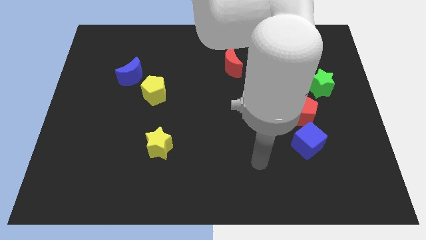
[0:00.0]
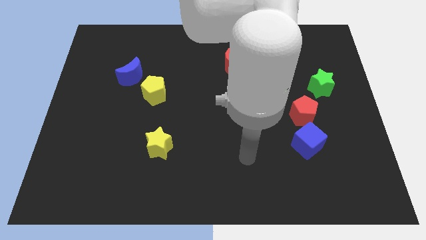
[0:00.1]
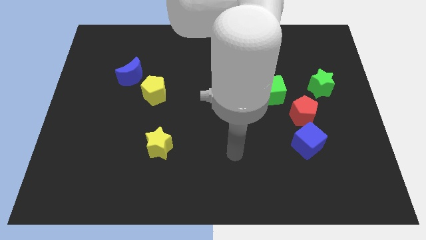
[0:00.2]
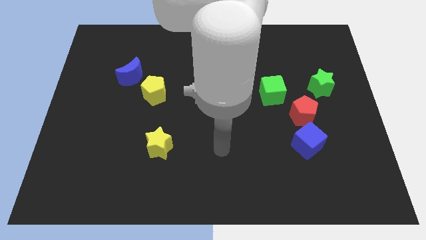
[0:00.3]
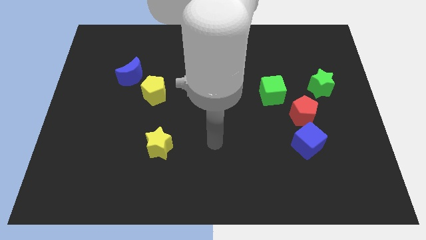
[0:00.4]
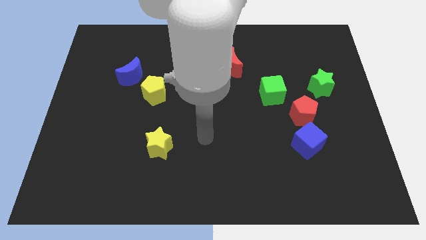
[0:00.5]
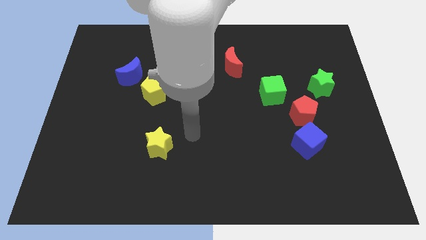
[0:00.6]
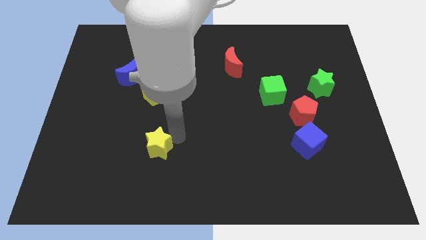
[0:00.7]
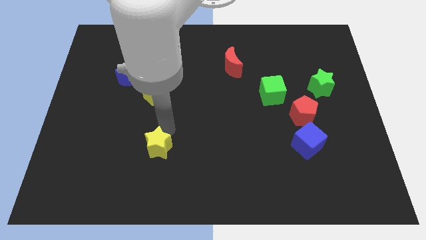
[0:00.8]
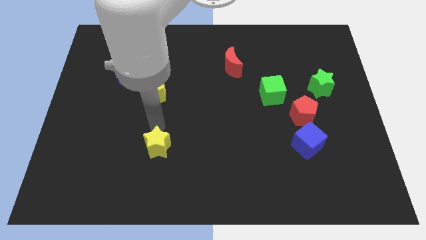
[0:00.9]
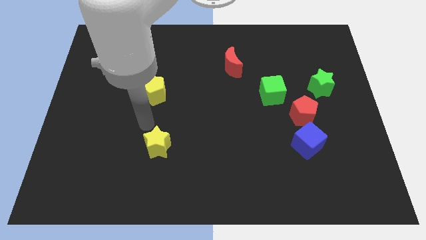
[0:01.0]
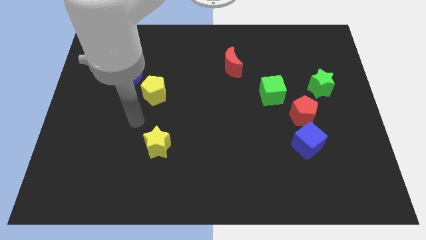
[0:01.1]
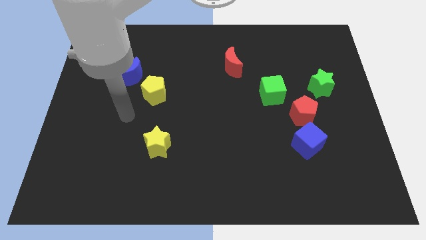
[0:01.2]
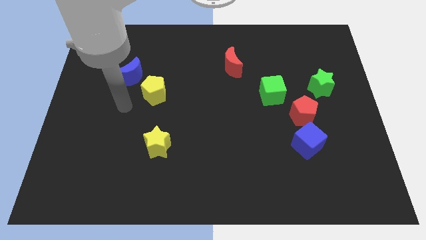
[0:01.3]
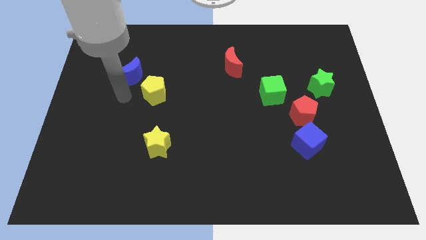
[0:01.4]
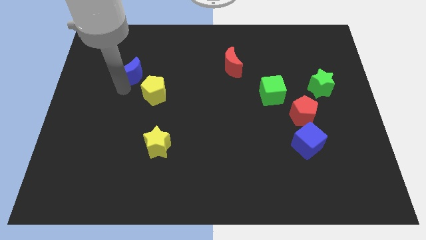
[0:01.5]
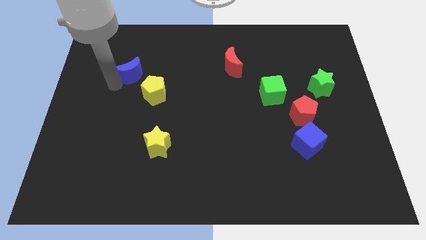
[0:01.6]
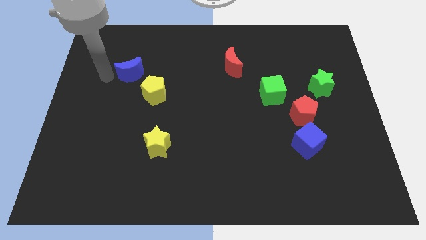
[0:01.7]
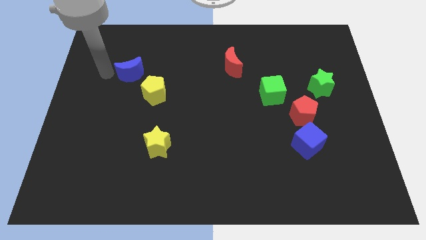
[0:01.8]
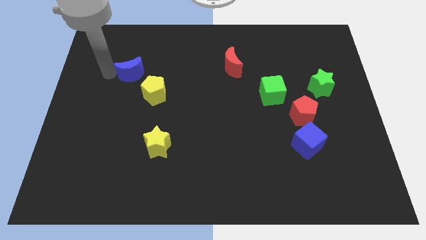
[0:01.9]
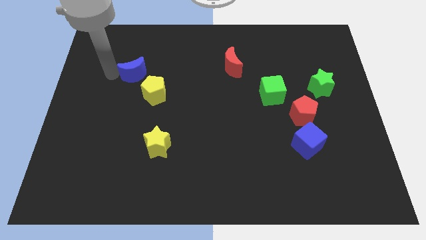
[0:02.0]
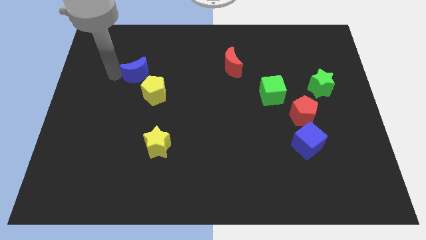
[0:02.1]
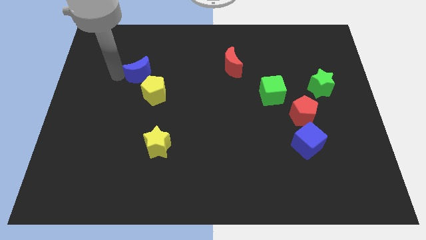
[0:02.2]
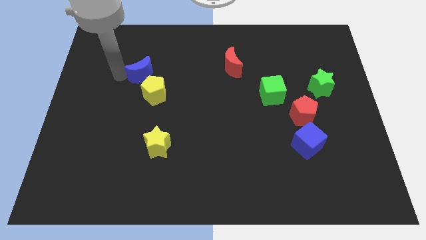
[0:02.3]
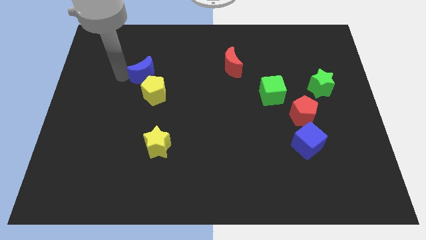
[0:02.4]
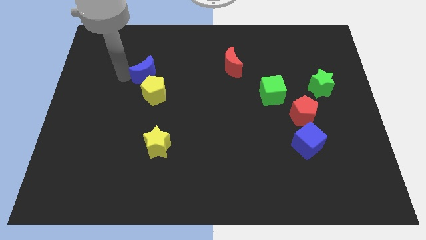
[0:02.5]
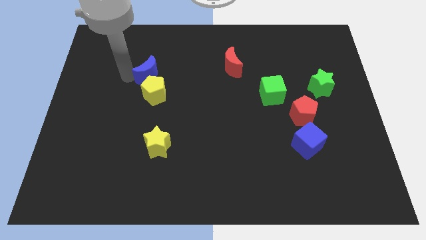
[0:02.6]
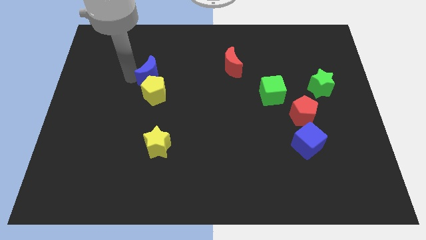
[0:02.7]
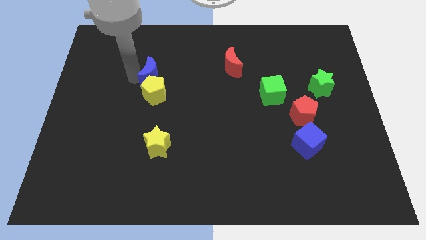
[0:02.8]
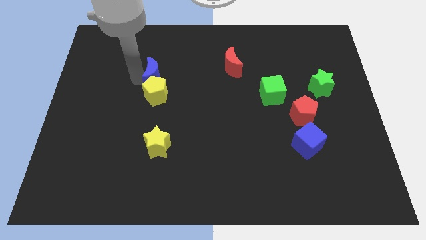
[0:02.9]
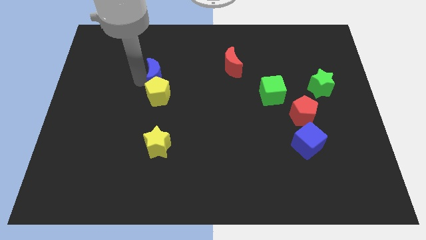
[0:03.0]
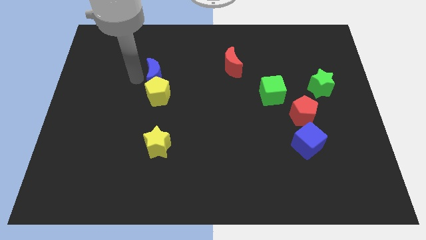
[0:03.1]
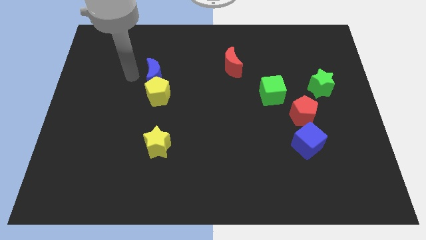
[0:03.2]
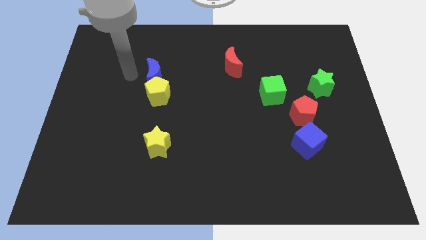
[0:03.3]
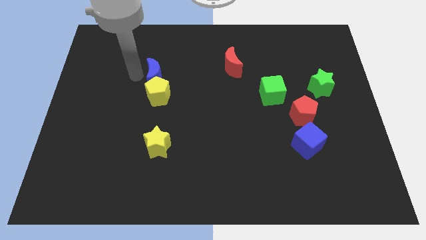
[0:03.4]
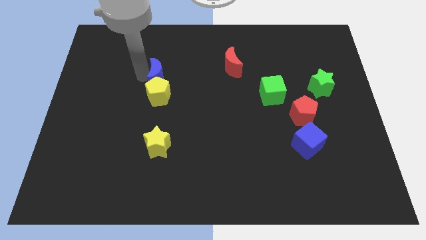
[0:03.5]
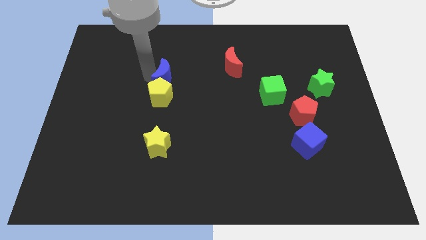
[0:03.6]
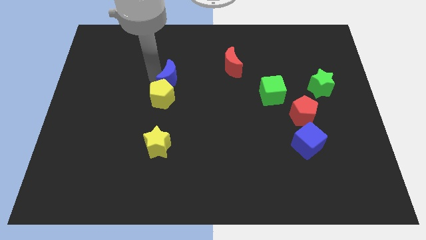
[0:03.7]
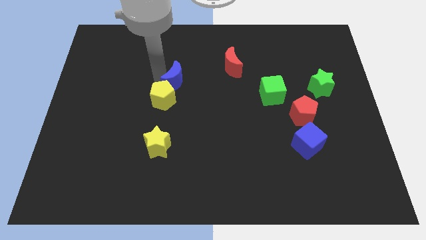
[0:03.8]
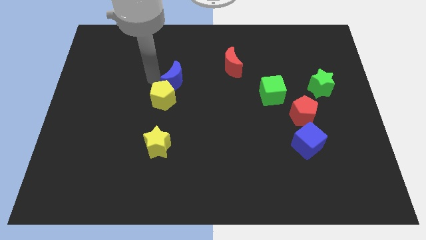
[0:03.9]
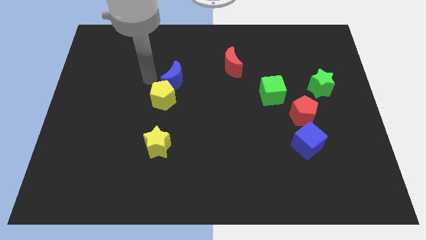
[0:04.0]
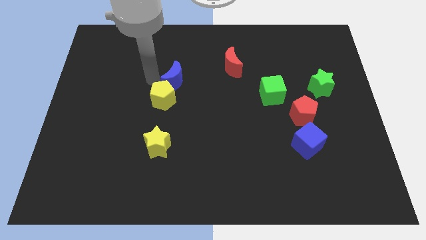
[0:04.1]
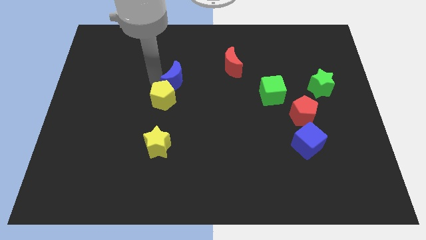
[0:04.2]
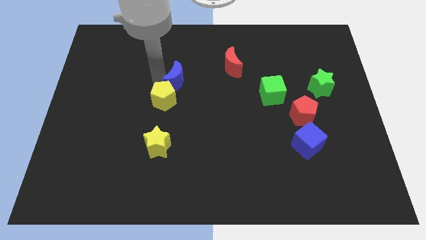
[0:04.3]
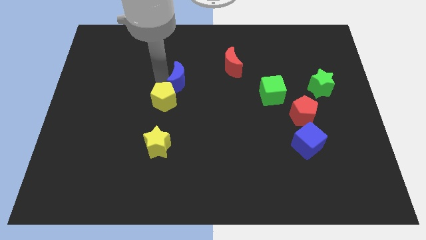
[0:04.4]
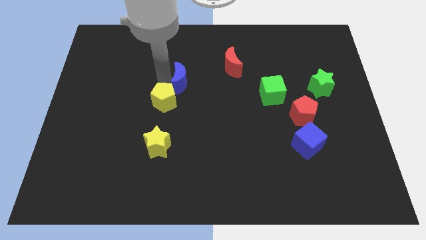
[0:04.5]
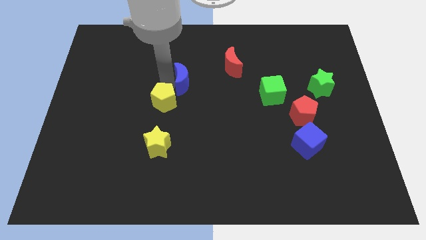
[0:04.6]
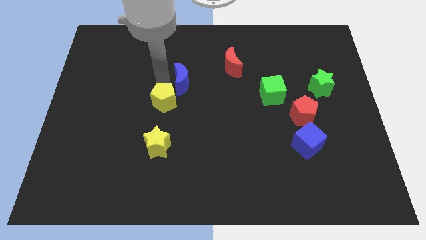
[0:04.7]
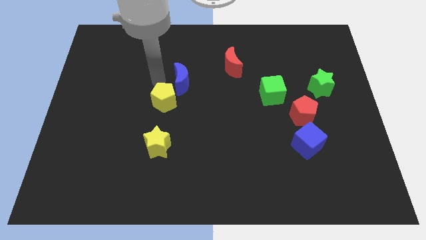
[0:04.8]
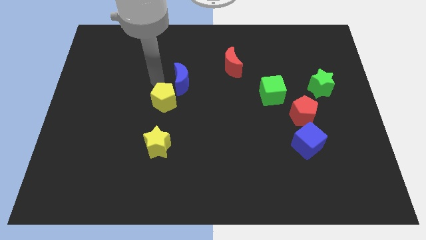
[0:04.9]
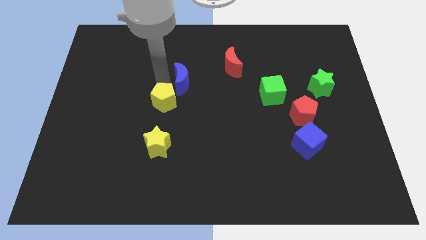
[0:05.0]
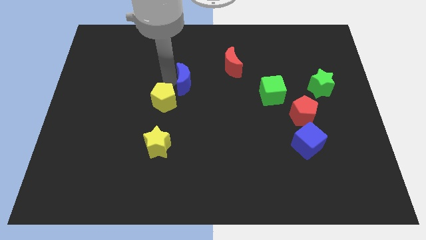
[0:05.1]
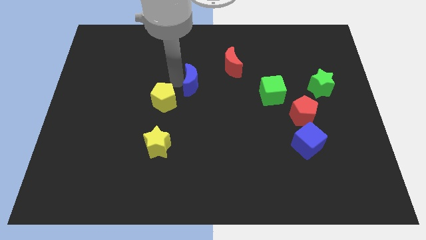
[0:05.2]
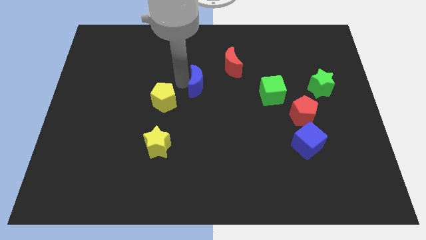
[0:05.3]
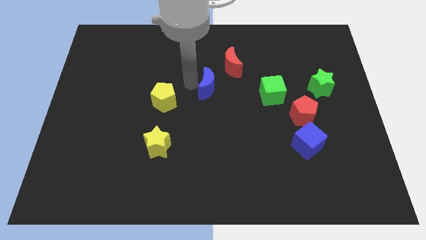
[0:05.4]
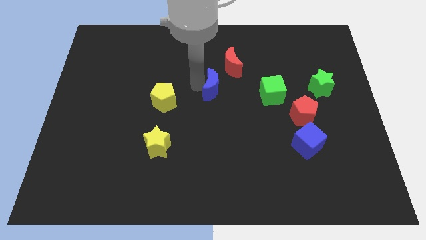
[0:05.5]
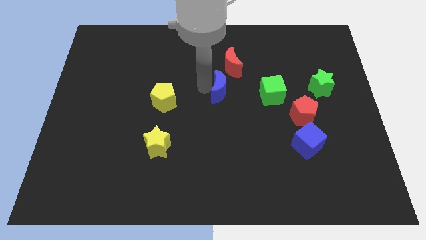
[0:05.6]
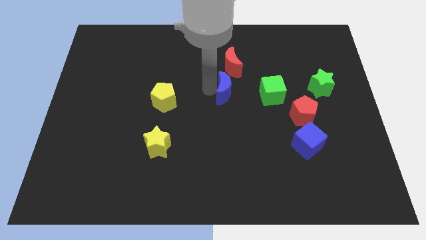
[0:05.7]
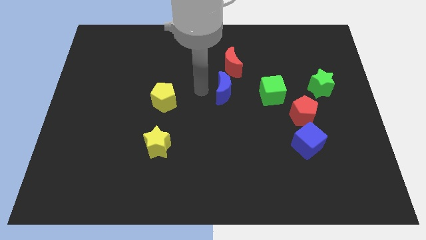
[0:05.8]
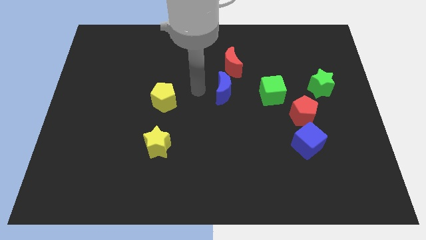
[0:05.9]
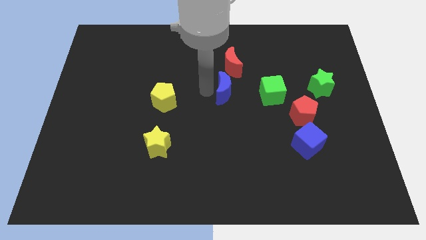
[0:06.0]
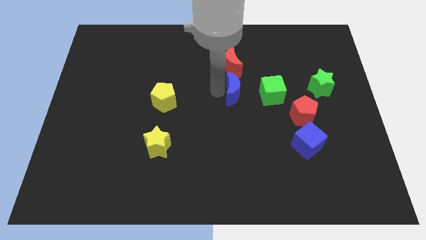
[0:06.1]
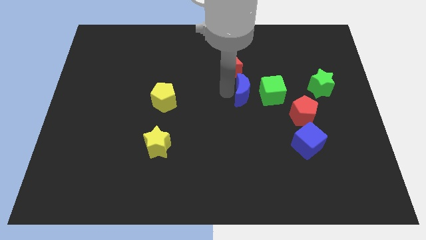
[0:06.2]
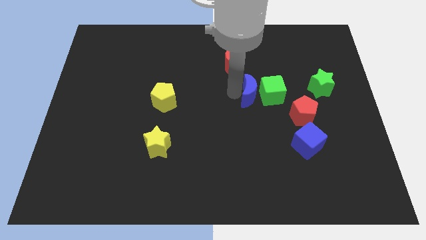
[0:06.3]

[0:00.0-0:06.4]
push the blue moon close to the green cube

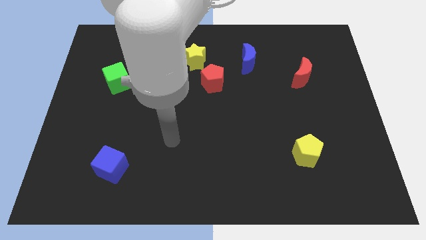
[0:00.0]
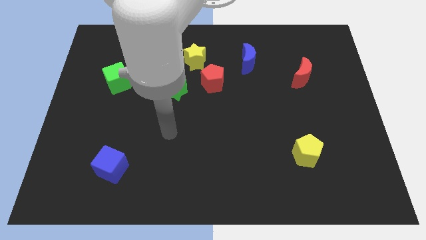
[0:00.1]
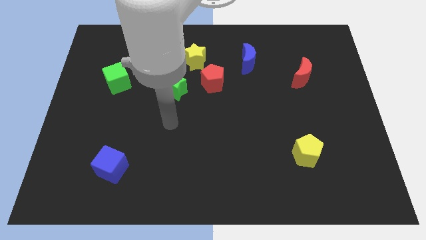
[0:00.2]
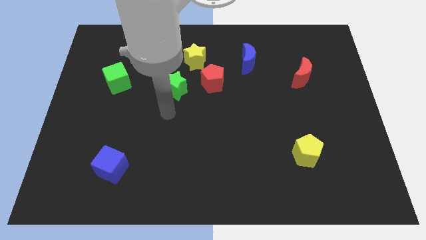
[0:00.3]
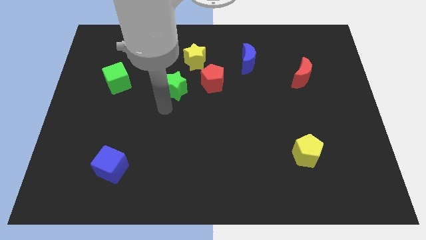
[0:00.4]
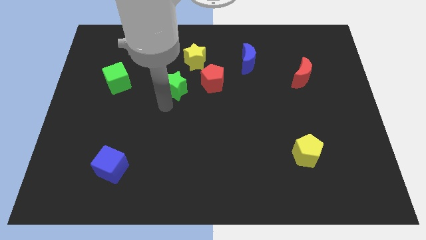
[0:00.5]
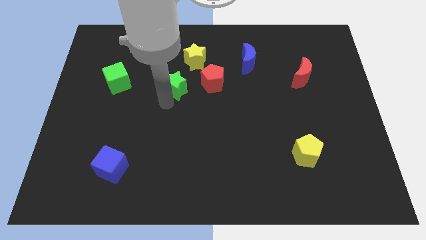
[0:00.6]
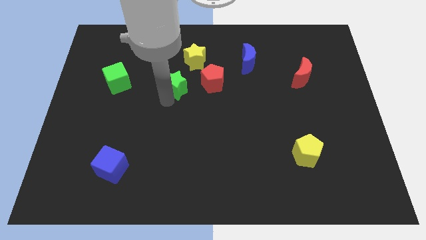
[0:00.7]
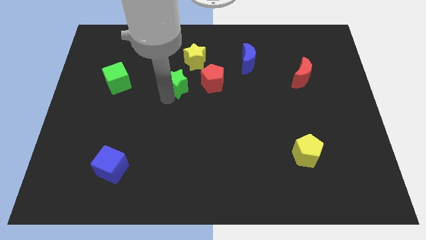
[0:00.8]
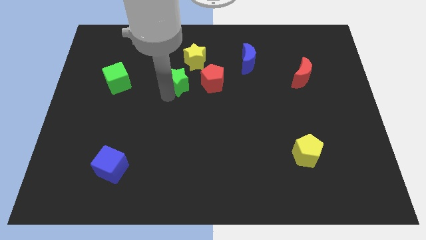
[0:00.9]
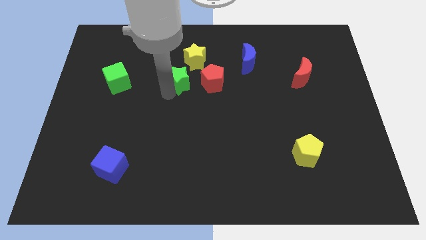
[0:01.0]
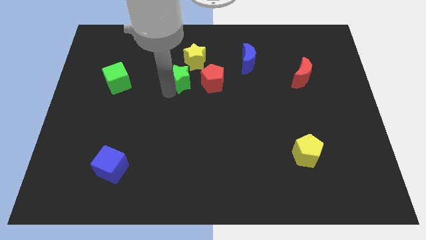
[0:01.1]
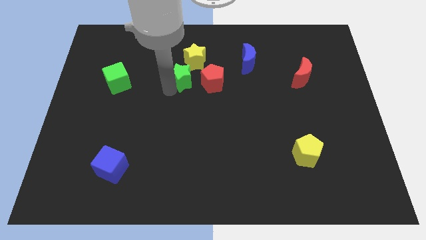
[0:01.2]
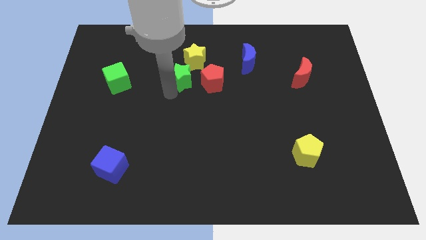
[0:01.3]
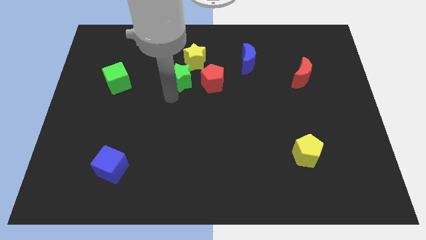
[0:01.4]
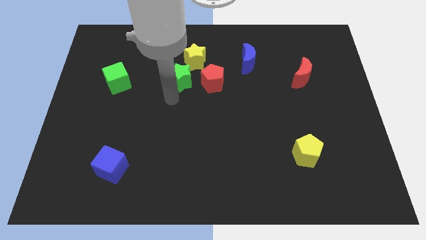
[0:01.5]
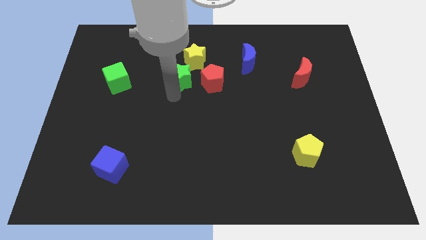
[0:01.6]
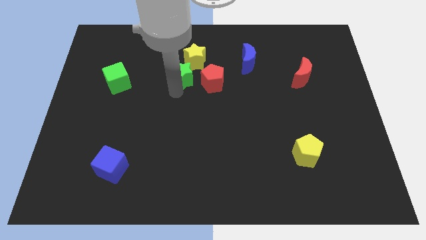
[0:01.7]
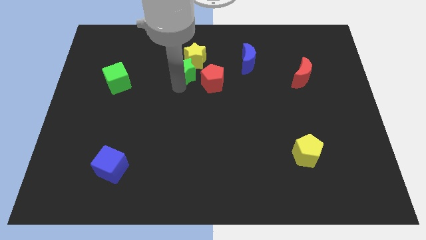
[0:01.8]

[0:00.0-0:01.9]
put the green star next to the yellow star
